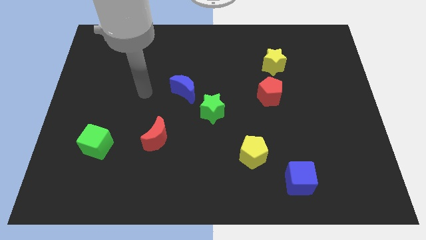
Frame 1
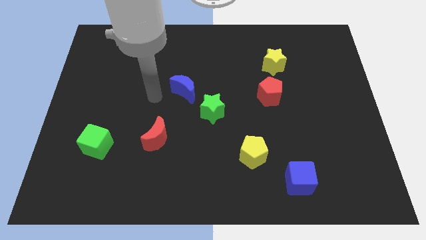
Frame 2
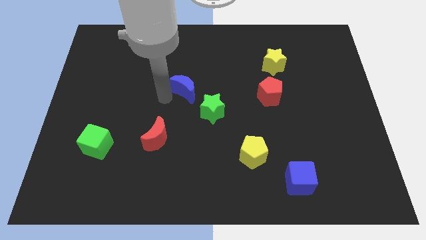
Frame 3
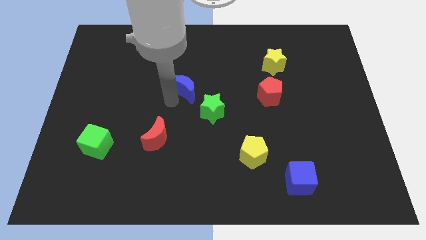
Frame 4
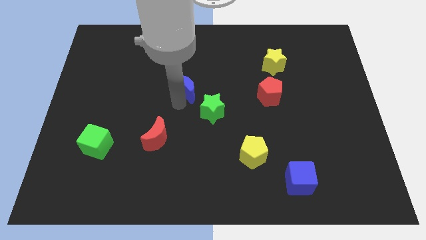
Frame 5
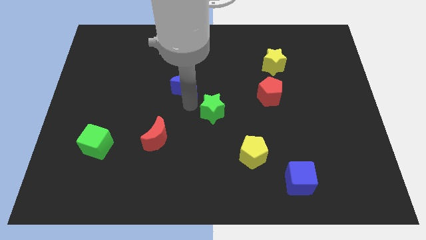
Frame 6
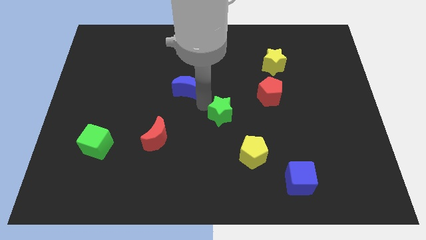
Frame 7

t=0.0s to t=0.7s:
move the blue moon away from the green star

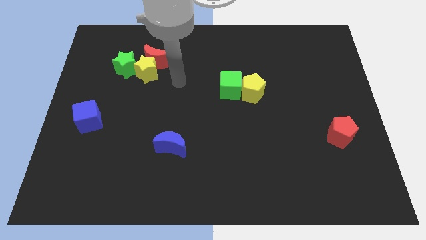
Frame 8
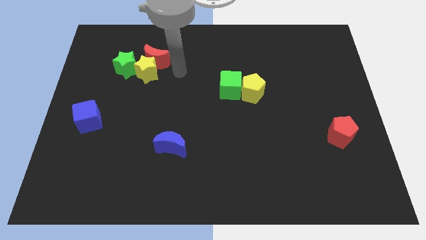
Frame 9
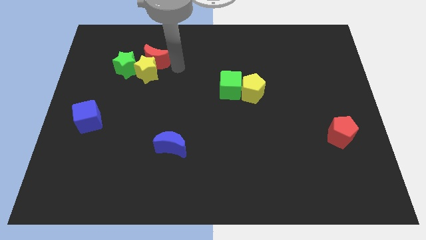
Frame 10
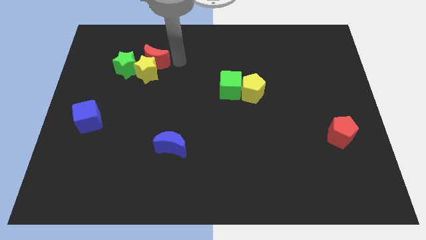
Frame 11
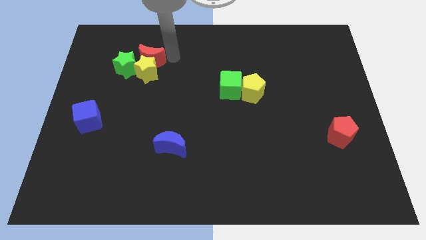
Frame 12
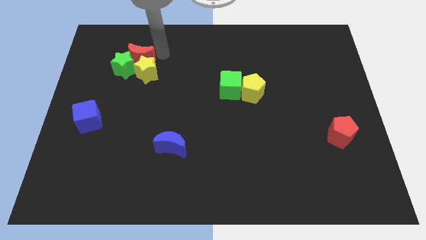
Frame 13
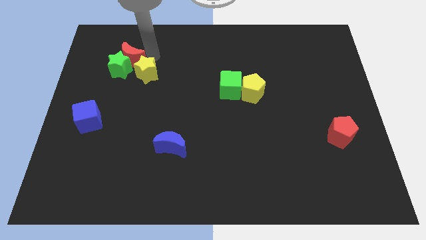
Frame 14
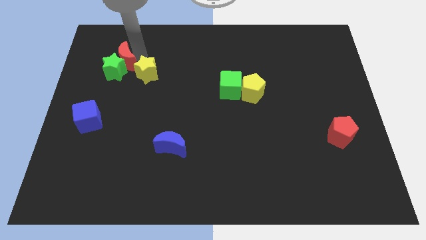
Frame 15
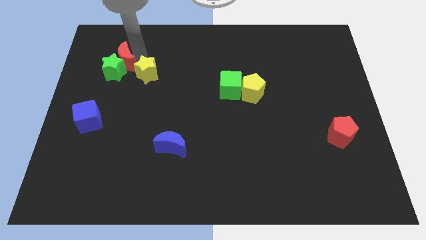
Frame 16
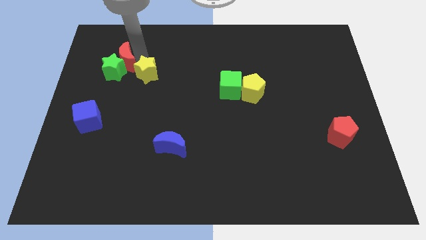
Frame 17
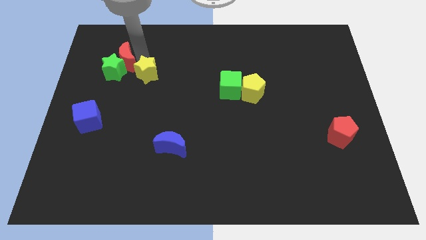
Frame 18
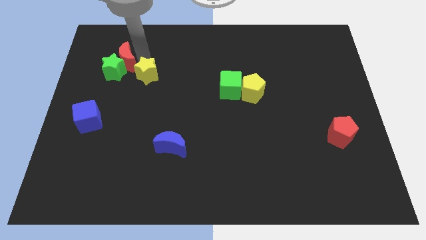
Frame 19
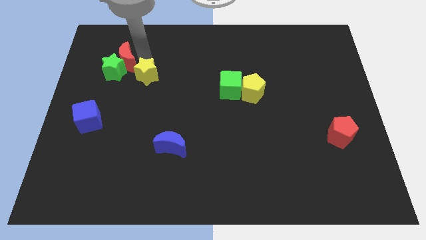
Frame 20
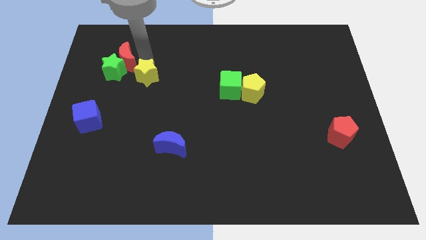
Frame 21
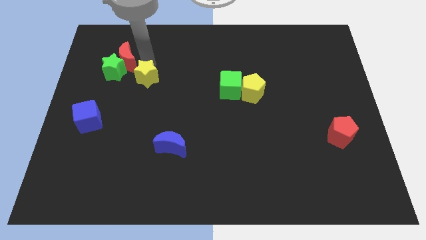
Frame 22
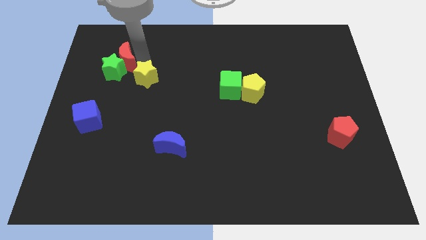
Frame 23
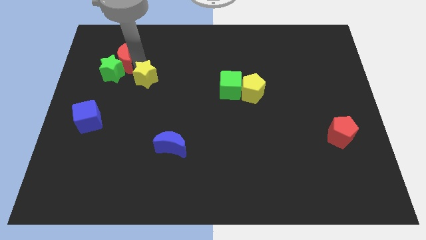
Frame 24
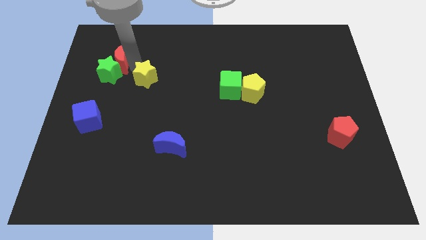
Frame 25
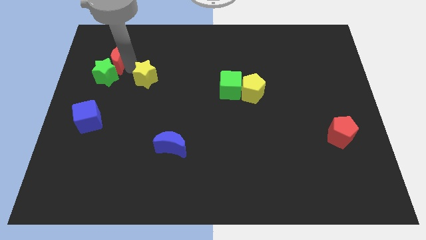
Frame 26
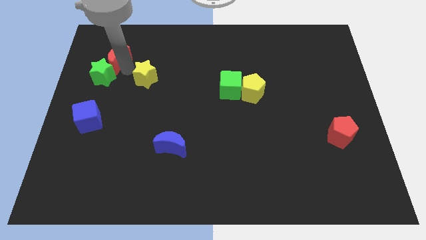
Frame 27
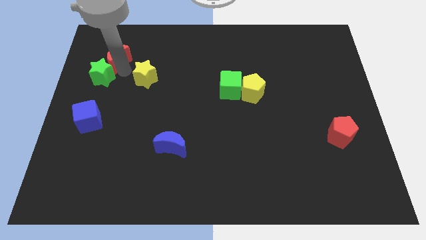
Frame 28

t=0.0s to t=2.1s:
separate the yellow star from the red moon and green star

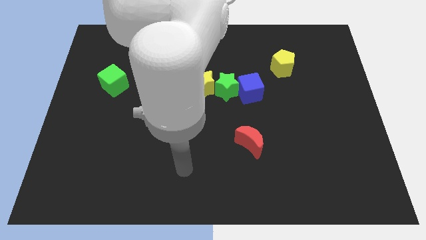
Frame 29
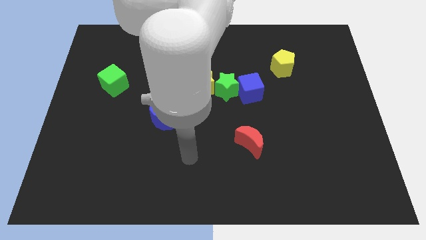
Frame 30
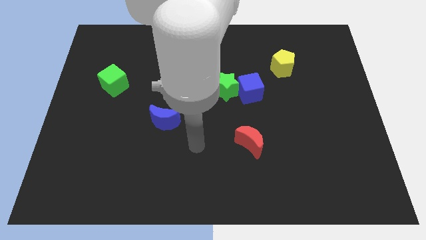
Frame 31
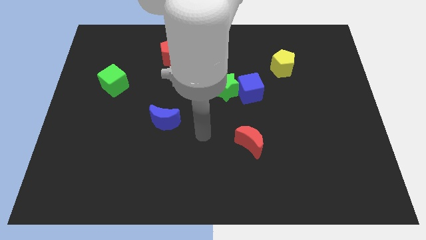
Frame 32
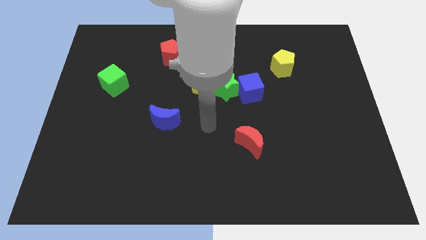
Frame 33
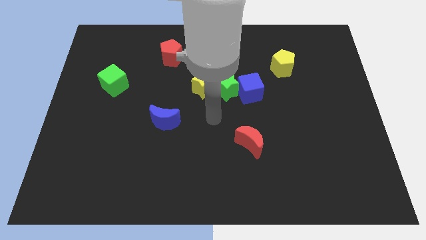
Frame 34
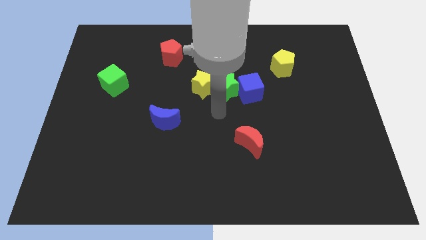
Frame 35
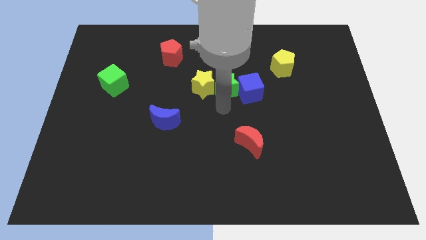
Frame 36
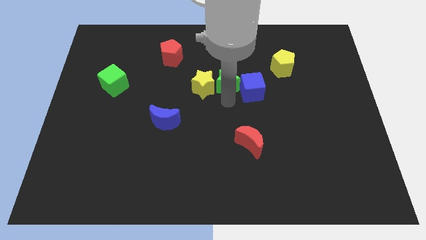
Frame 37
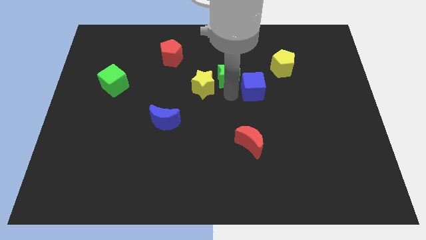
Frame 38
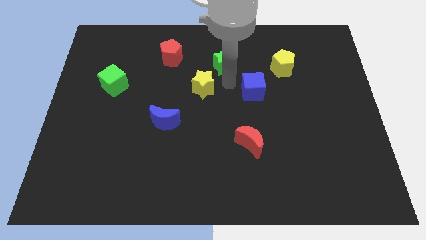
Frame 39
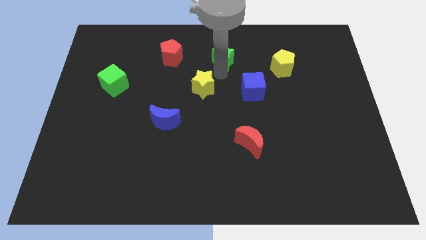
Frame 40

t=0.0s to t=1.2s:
pull the yellow star apart from the green star

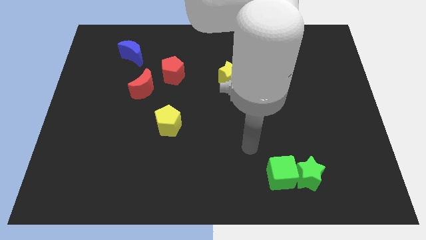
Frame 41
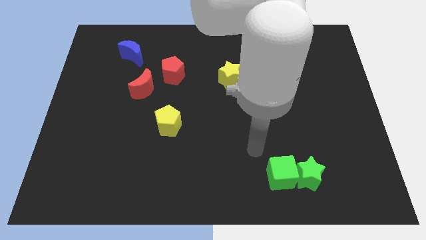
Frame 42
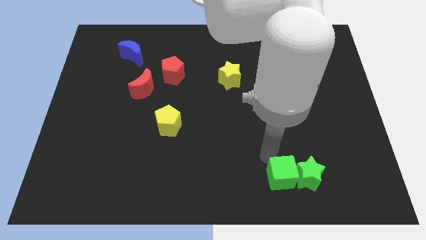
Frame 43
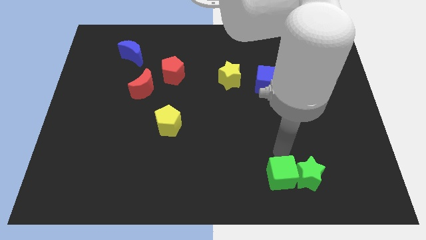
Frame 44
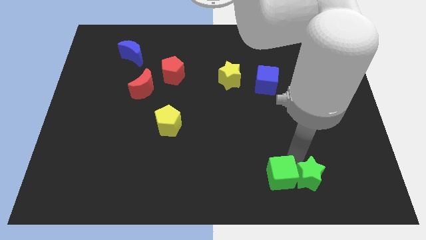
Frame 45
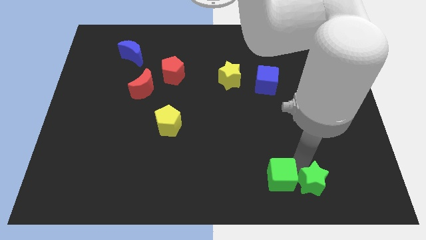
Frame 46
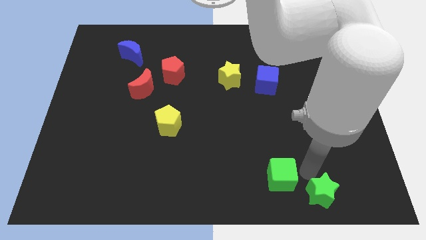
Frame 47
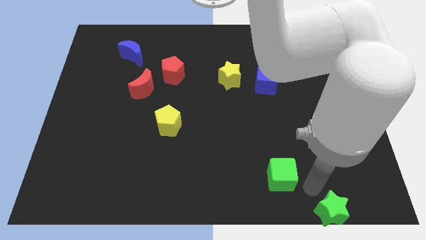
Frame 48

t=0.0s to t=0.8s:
move the green cube away from the green star

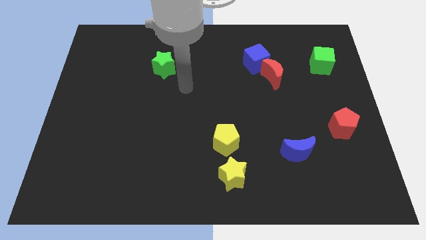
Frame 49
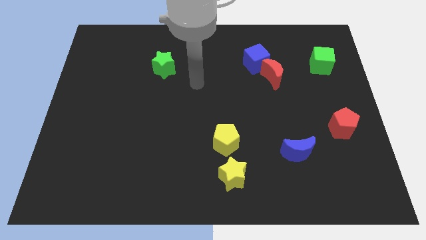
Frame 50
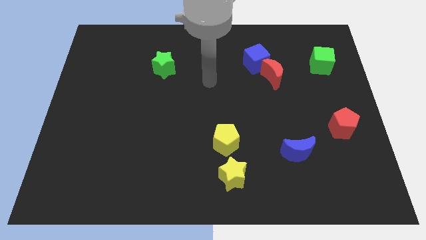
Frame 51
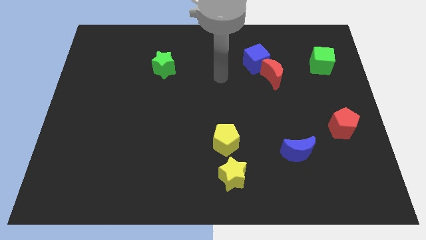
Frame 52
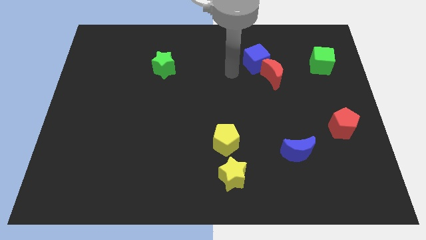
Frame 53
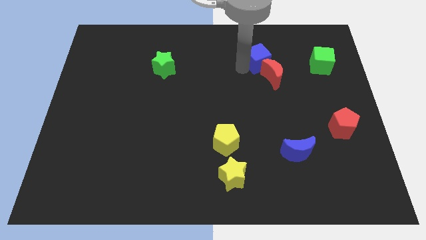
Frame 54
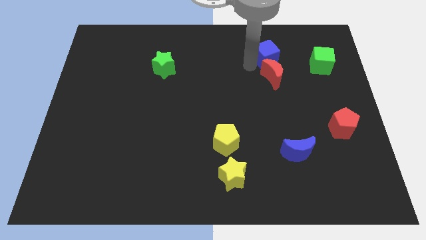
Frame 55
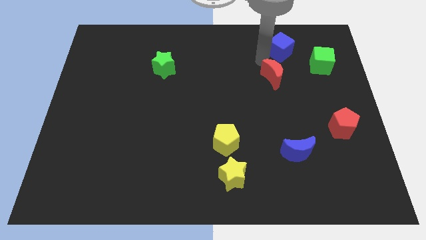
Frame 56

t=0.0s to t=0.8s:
separate the red moon from the blue cube

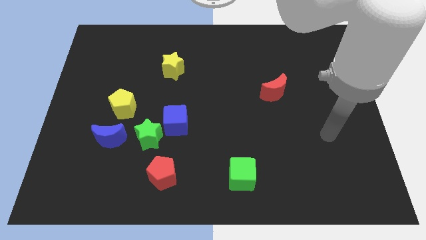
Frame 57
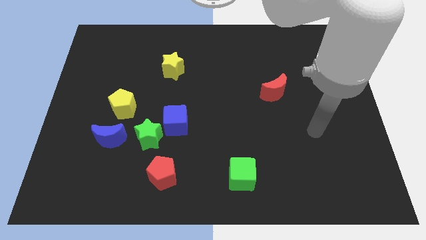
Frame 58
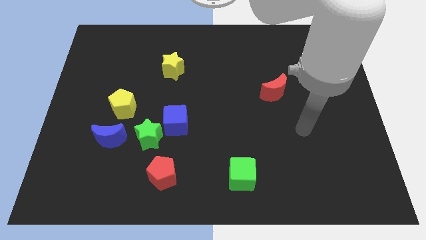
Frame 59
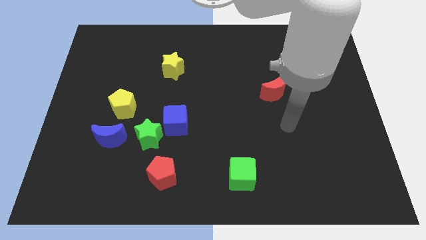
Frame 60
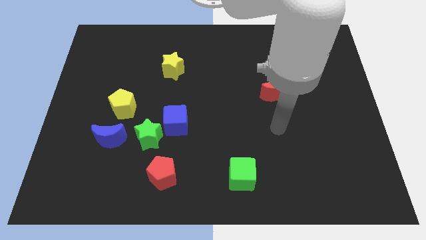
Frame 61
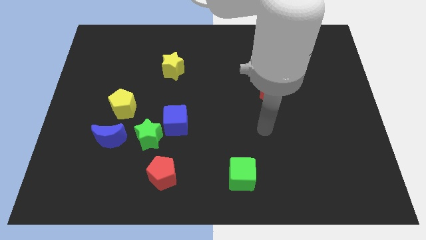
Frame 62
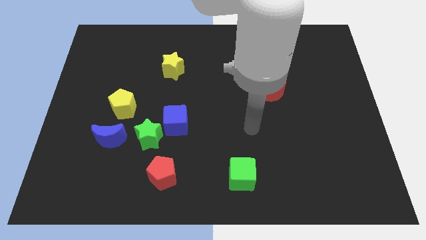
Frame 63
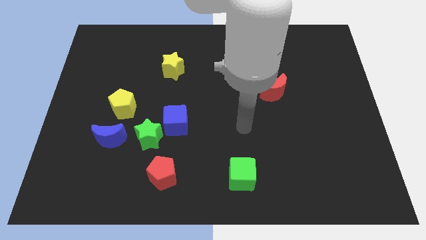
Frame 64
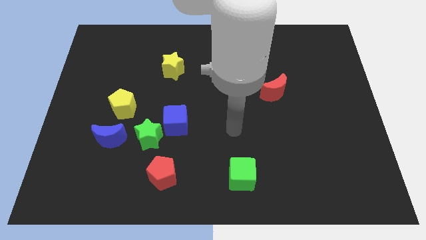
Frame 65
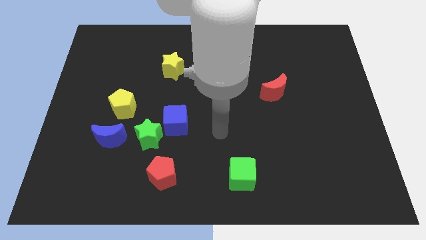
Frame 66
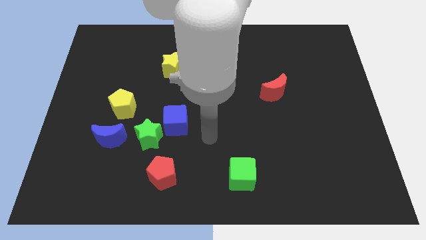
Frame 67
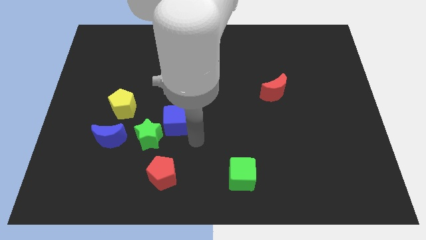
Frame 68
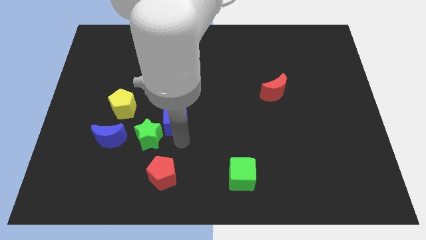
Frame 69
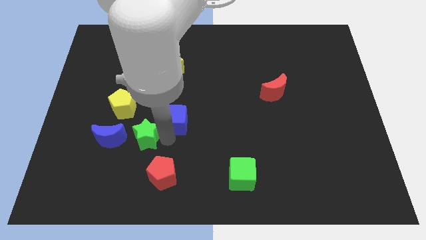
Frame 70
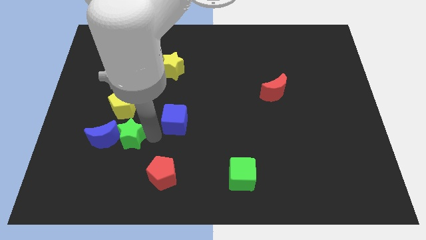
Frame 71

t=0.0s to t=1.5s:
pull the blue cube apart from the green star

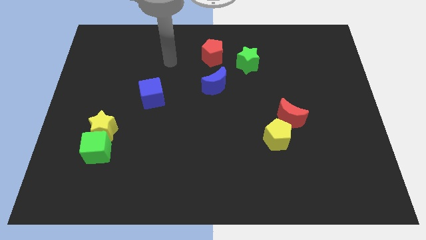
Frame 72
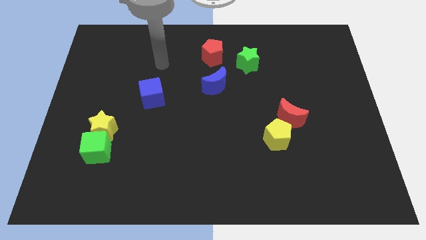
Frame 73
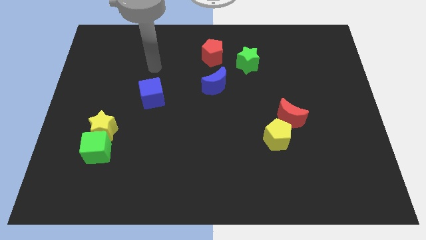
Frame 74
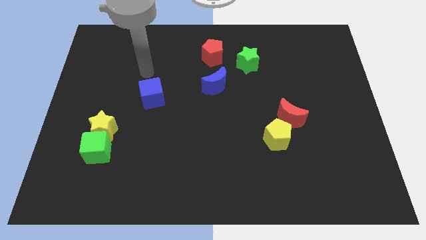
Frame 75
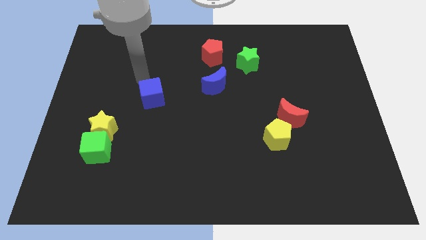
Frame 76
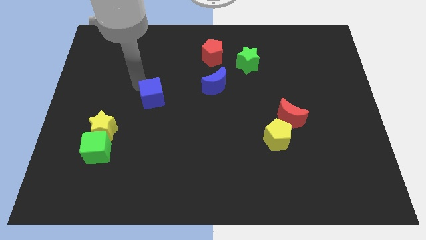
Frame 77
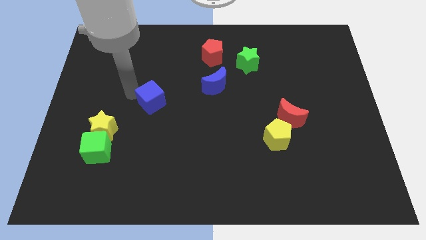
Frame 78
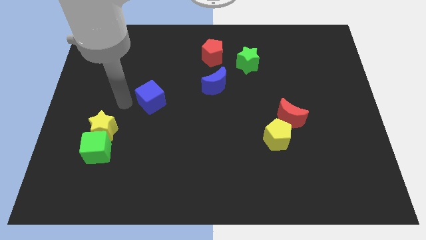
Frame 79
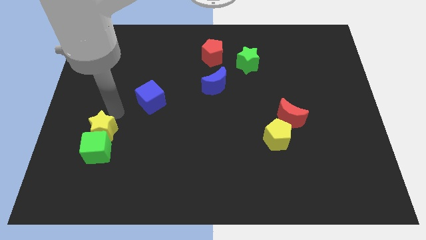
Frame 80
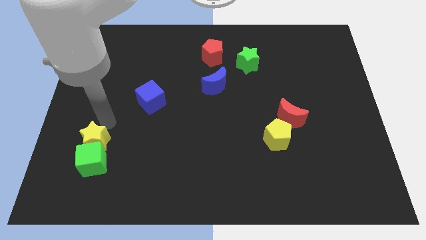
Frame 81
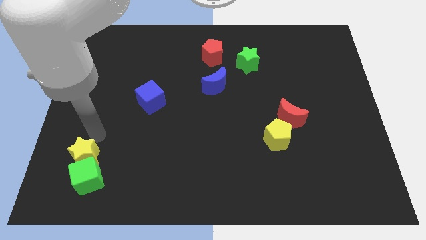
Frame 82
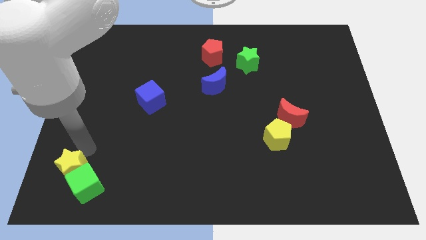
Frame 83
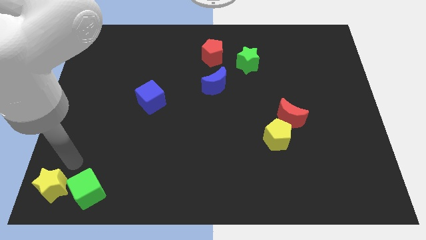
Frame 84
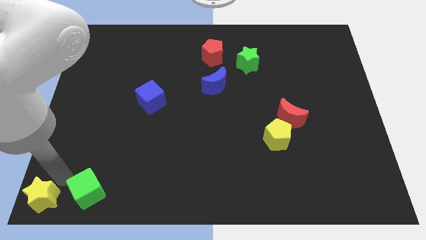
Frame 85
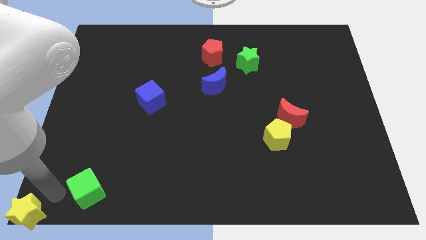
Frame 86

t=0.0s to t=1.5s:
move the green cube away from the yellow star

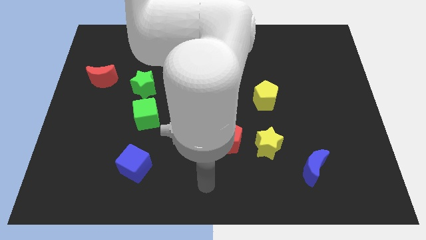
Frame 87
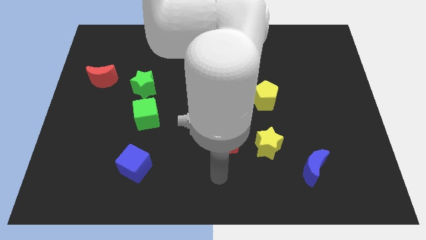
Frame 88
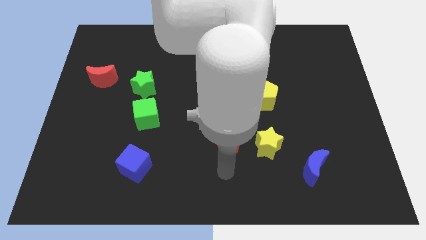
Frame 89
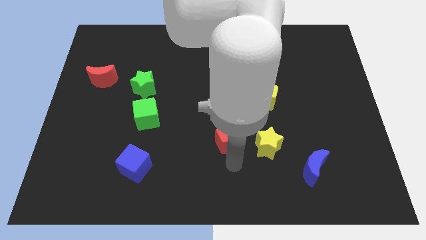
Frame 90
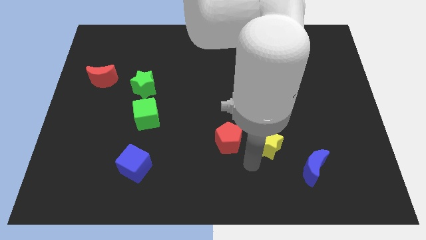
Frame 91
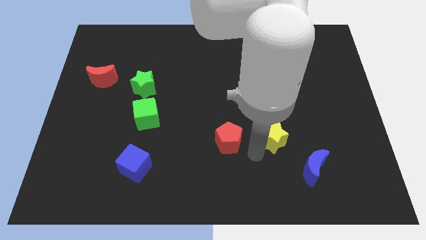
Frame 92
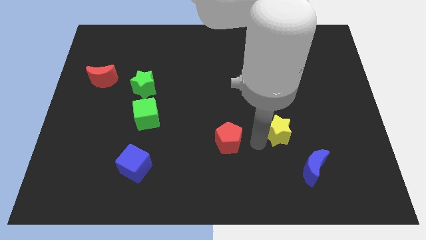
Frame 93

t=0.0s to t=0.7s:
move the red pentagon away from the yellow star

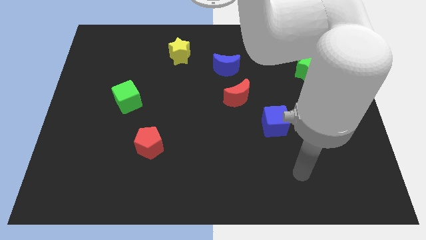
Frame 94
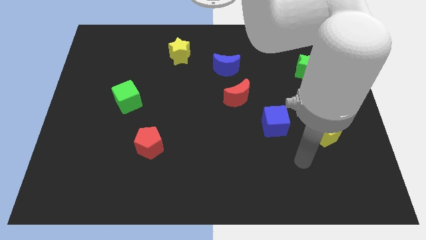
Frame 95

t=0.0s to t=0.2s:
separate the red moon from the blue moon
